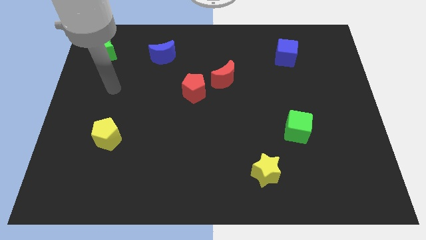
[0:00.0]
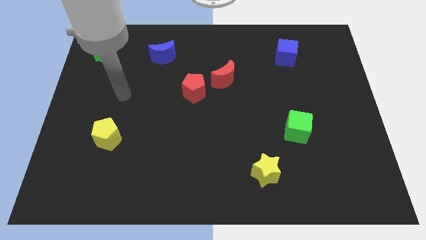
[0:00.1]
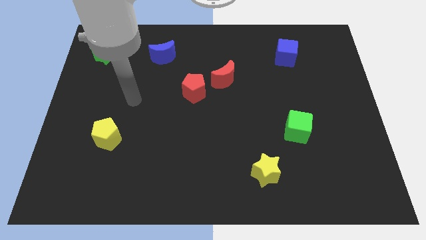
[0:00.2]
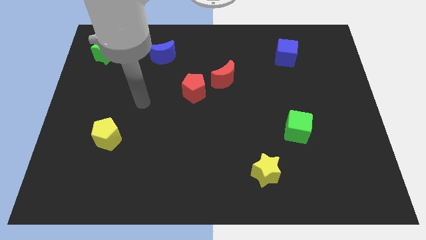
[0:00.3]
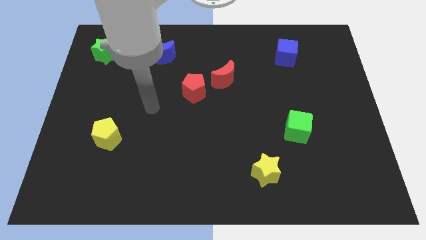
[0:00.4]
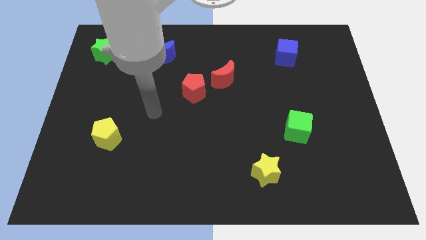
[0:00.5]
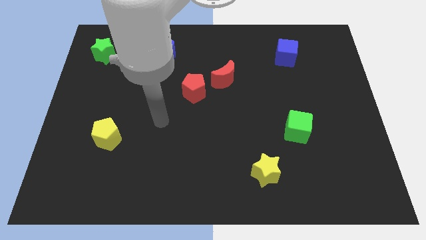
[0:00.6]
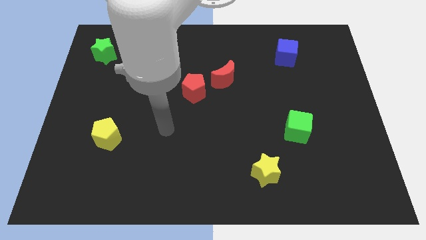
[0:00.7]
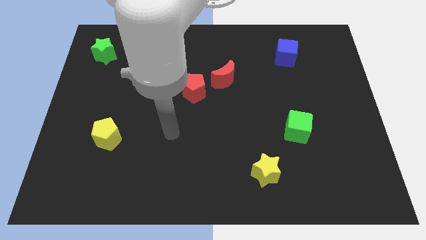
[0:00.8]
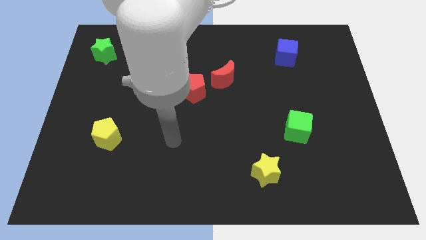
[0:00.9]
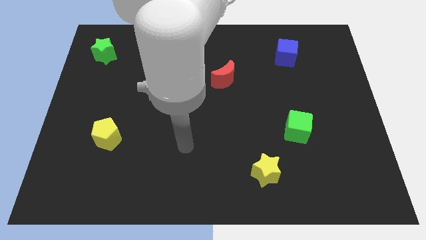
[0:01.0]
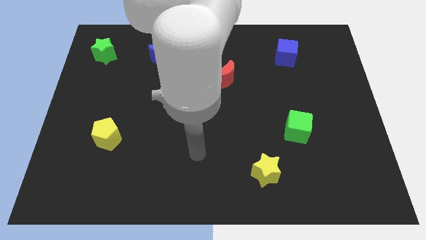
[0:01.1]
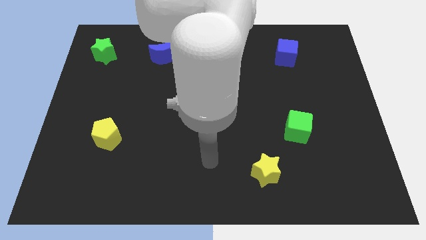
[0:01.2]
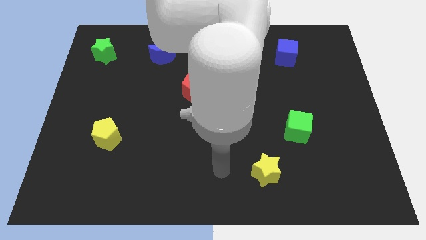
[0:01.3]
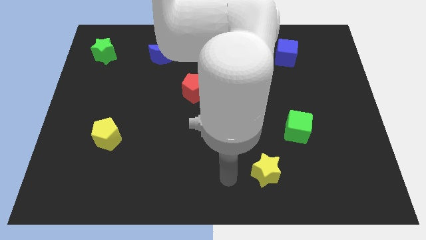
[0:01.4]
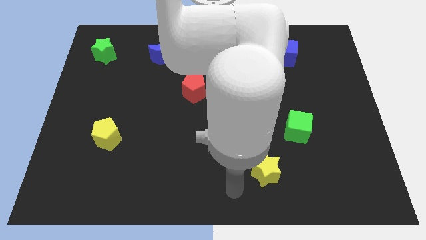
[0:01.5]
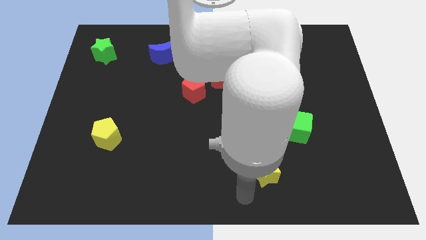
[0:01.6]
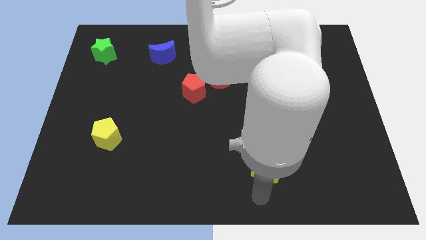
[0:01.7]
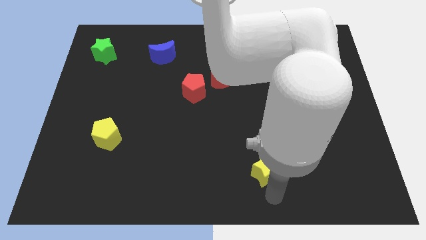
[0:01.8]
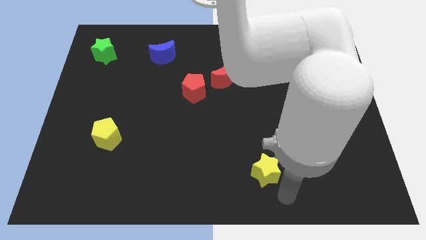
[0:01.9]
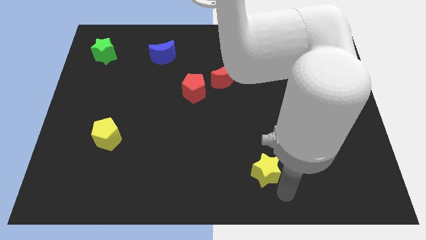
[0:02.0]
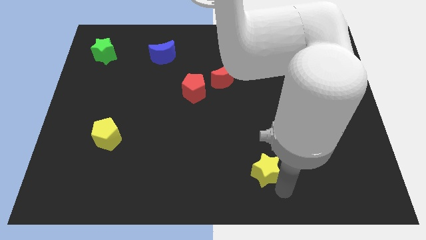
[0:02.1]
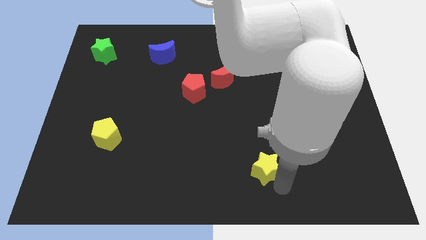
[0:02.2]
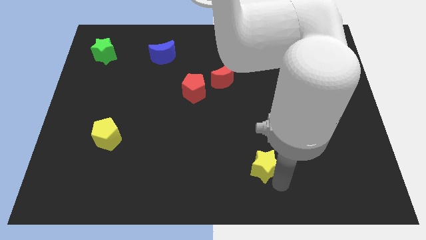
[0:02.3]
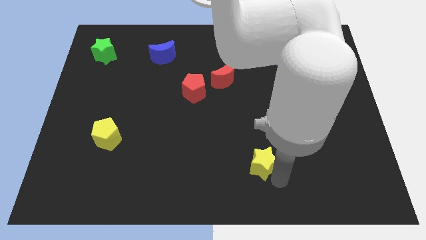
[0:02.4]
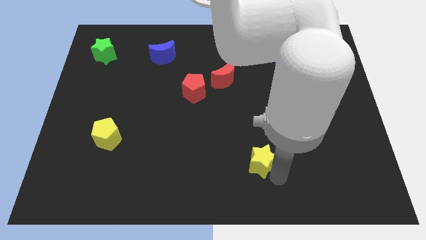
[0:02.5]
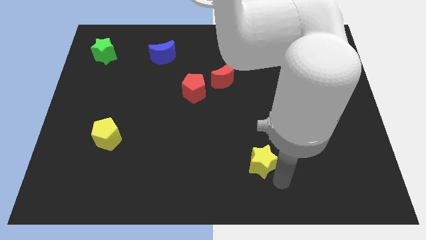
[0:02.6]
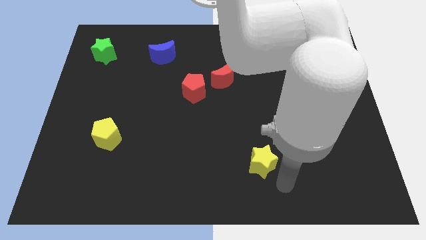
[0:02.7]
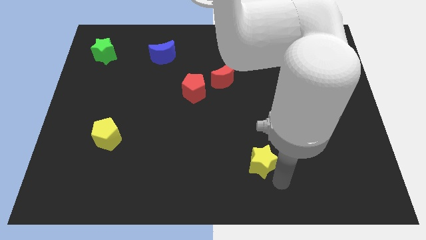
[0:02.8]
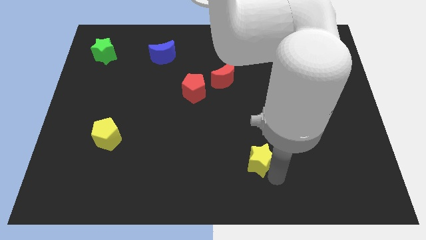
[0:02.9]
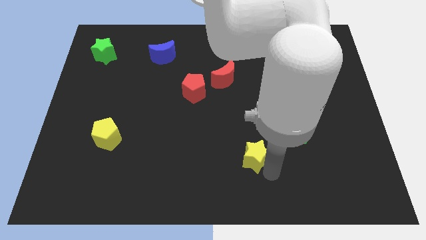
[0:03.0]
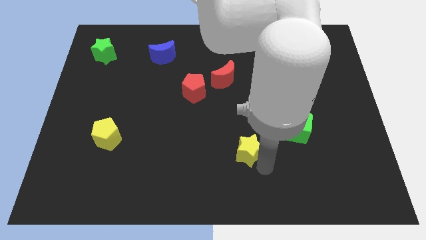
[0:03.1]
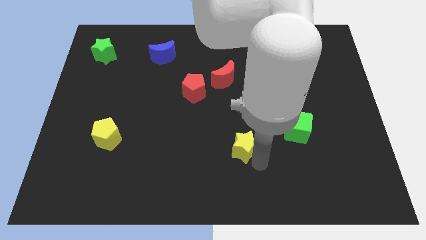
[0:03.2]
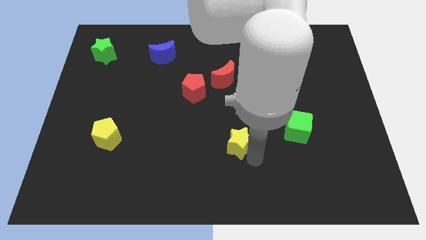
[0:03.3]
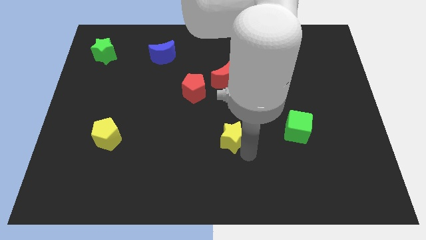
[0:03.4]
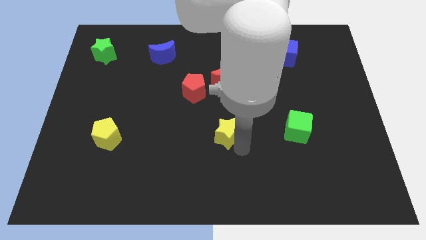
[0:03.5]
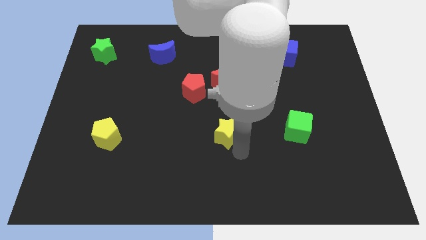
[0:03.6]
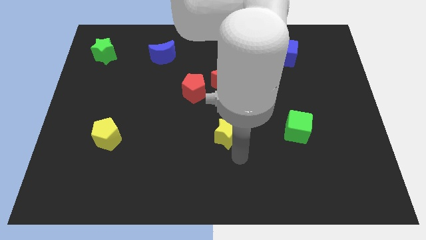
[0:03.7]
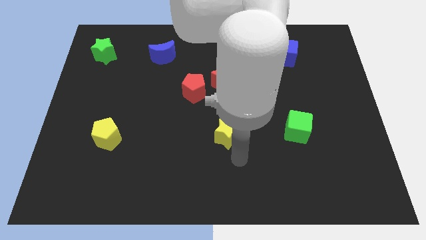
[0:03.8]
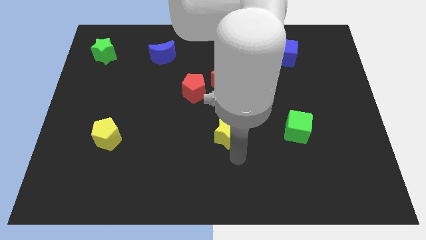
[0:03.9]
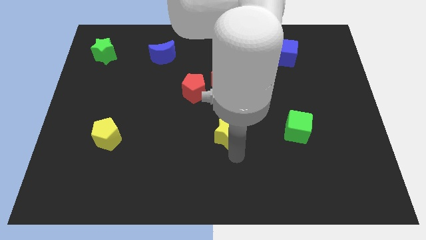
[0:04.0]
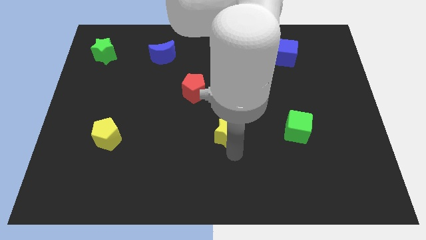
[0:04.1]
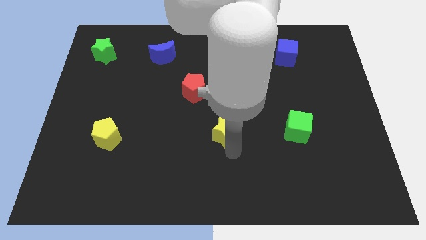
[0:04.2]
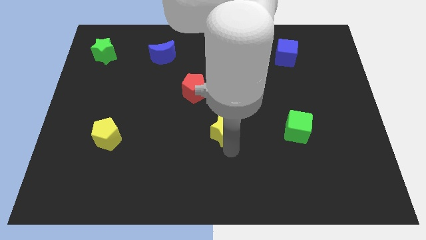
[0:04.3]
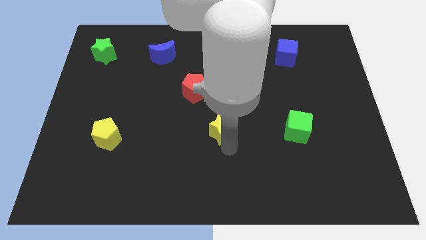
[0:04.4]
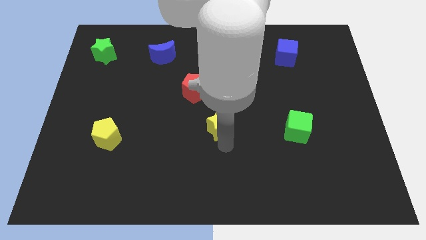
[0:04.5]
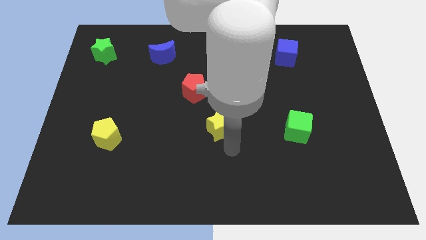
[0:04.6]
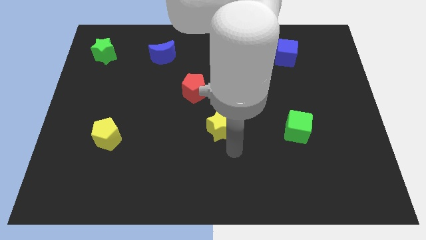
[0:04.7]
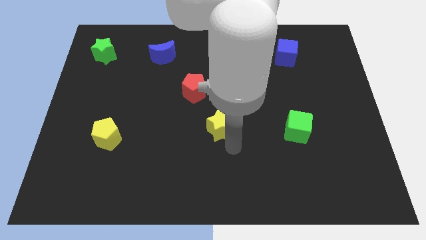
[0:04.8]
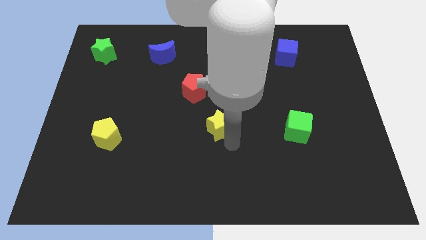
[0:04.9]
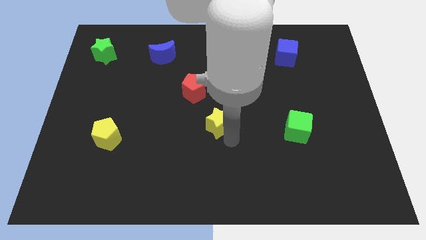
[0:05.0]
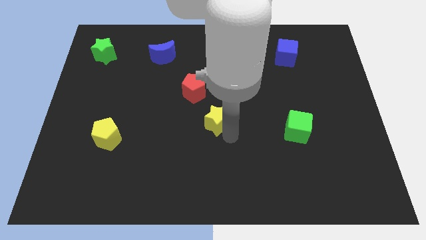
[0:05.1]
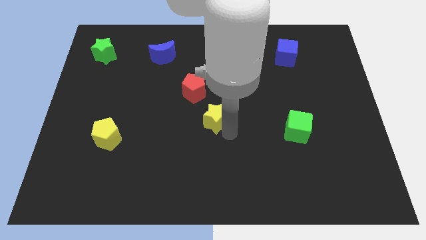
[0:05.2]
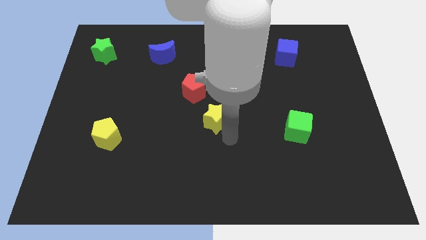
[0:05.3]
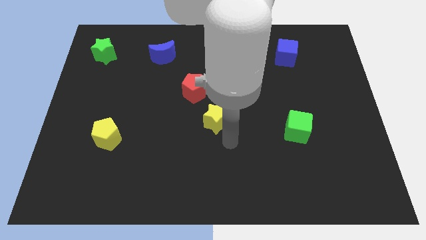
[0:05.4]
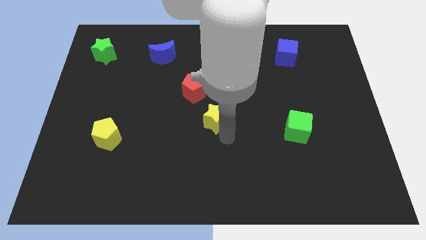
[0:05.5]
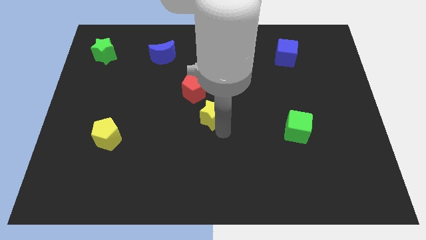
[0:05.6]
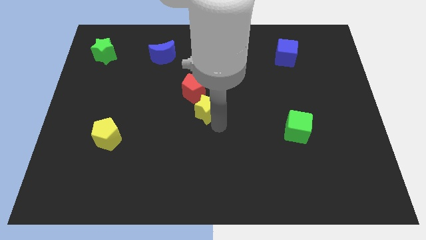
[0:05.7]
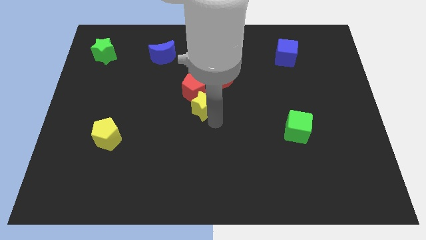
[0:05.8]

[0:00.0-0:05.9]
move the yellow star to the red pentagon

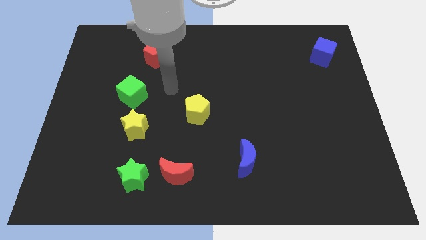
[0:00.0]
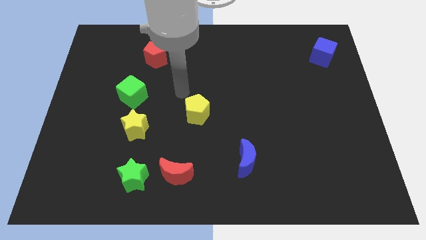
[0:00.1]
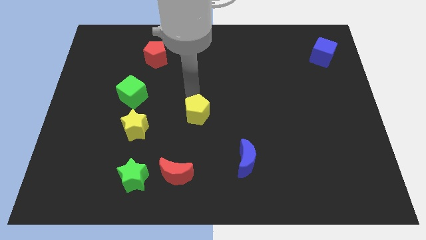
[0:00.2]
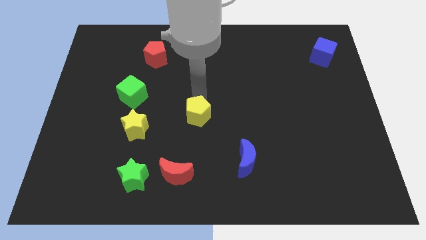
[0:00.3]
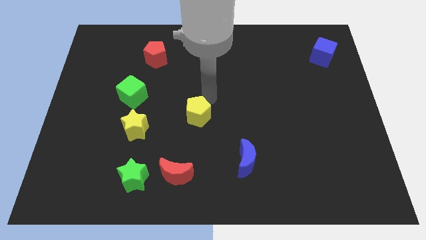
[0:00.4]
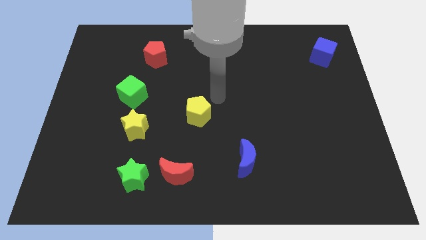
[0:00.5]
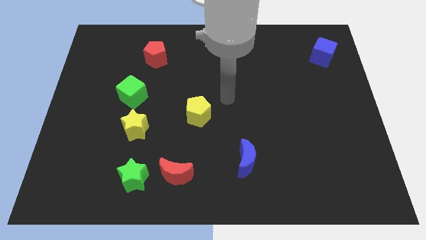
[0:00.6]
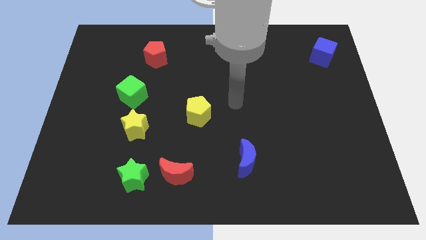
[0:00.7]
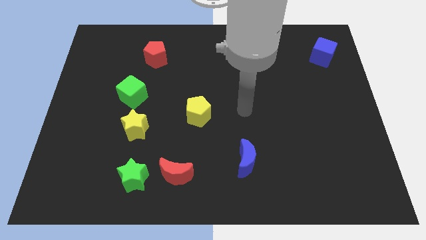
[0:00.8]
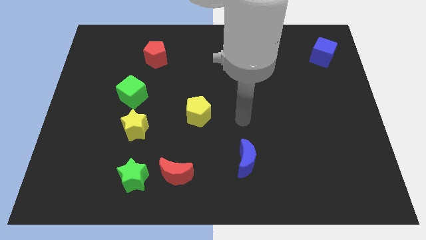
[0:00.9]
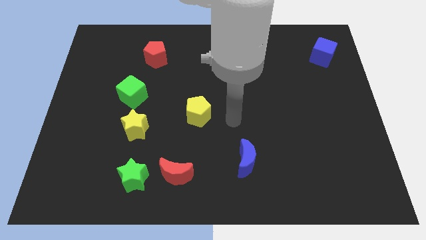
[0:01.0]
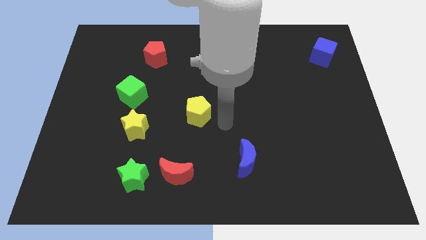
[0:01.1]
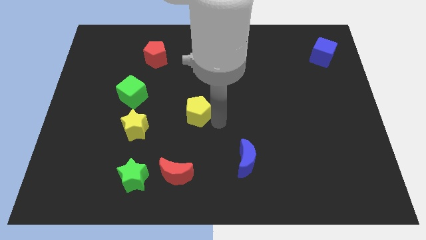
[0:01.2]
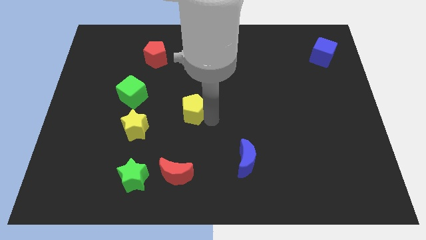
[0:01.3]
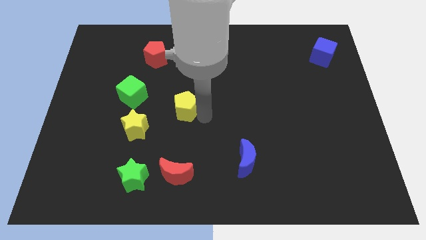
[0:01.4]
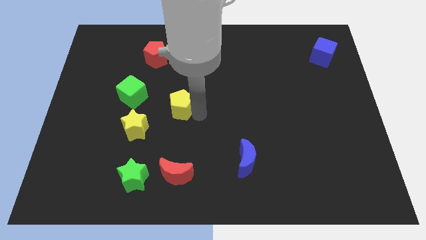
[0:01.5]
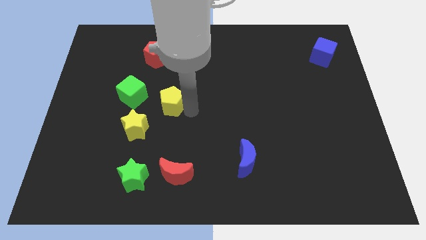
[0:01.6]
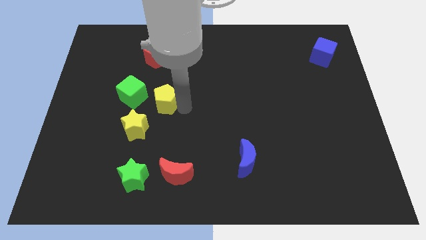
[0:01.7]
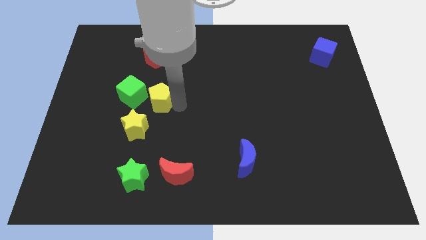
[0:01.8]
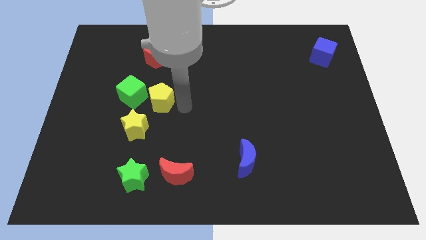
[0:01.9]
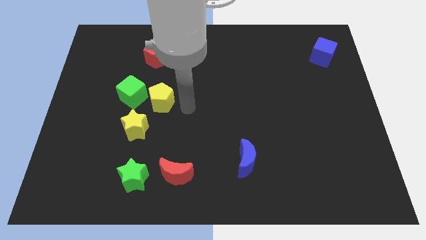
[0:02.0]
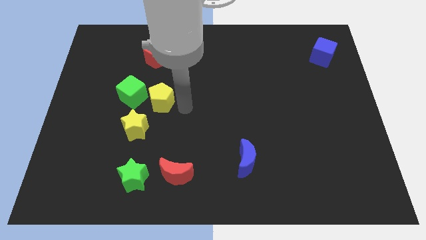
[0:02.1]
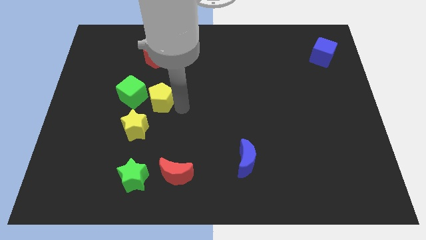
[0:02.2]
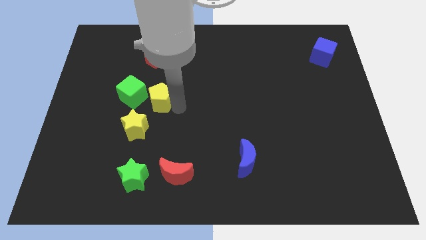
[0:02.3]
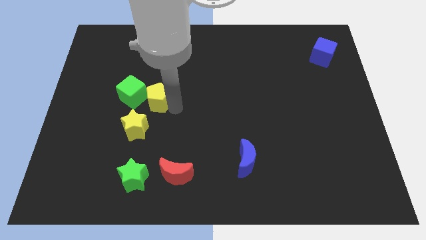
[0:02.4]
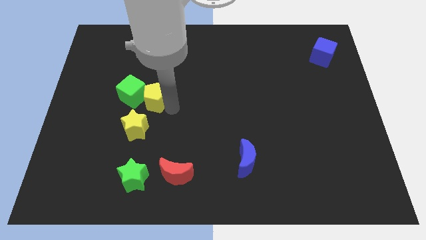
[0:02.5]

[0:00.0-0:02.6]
put the yellow pentagon to the green cube
